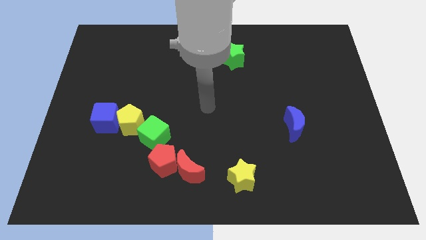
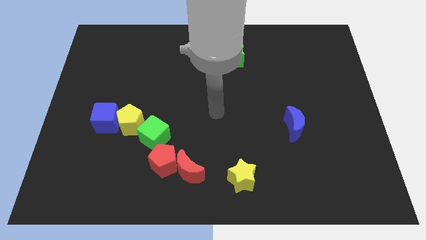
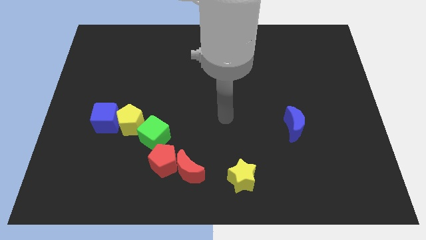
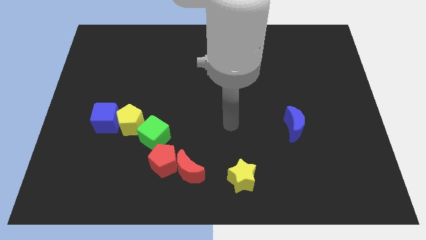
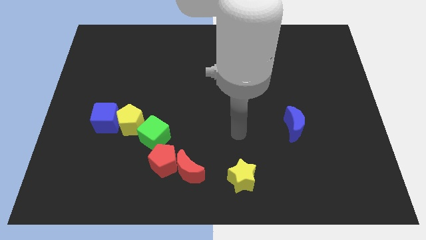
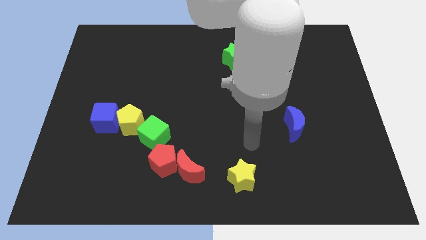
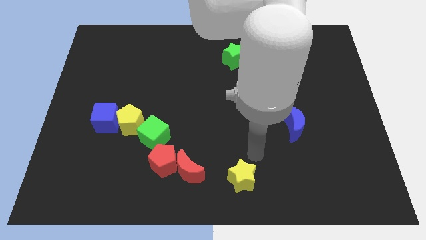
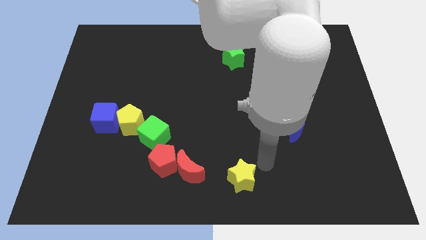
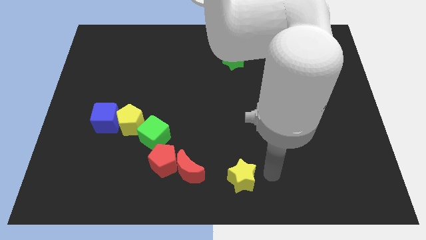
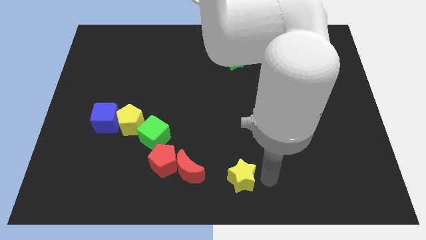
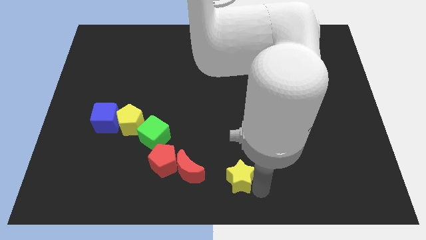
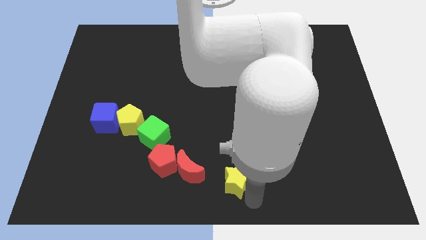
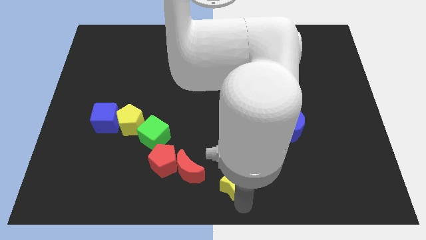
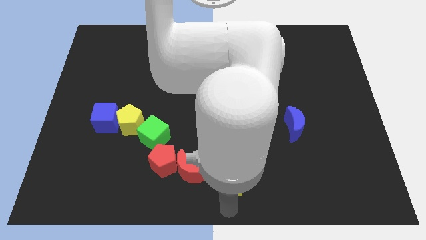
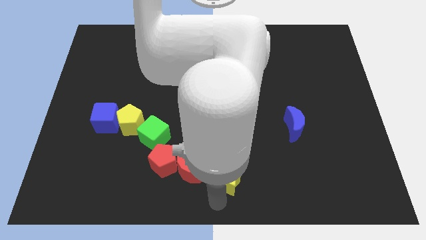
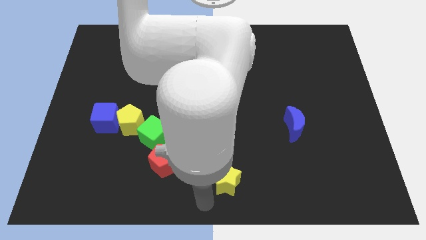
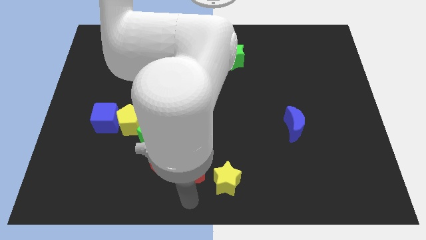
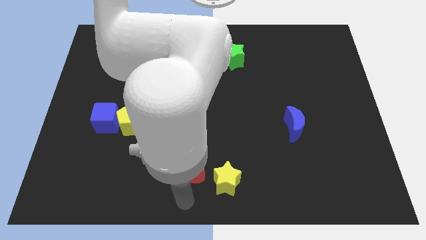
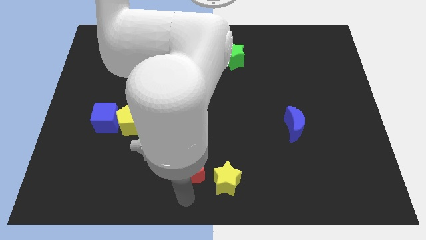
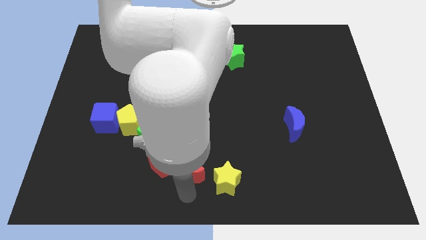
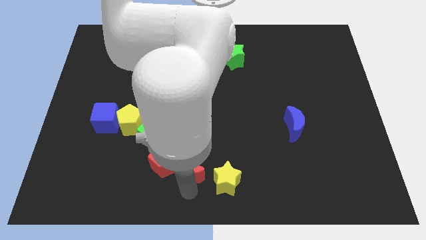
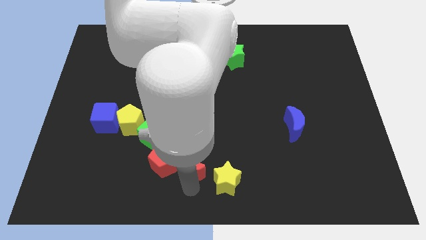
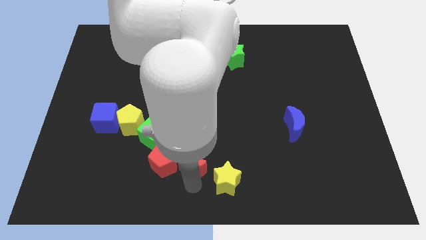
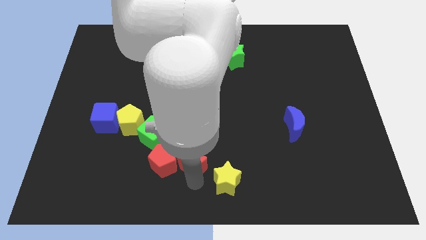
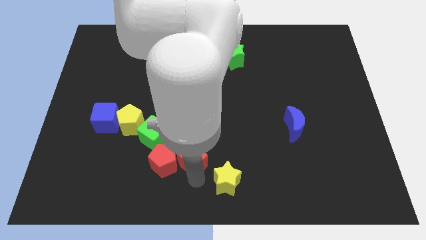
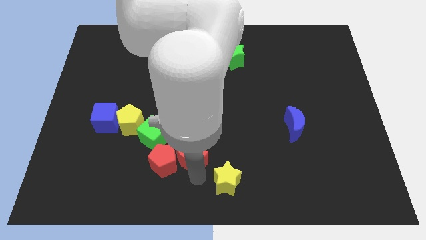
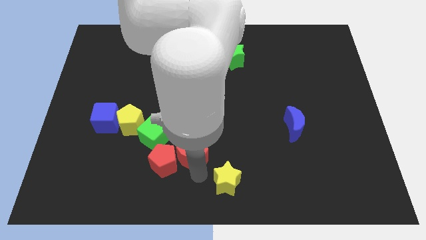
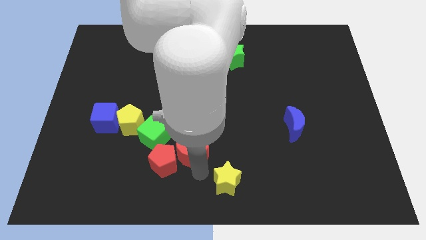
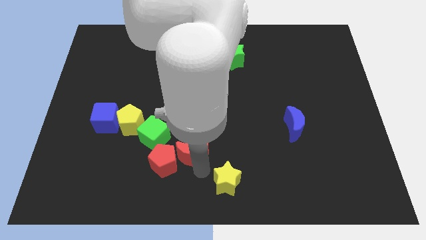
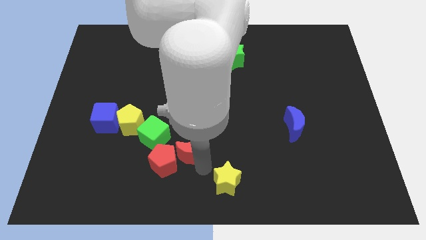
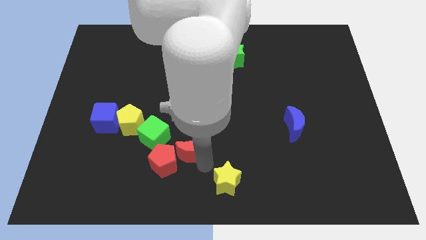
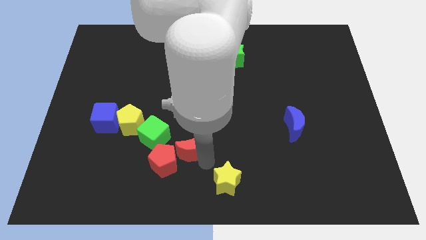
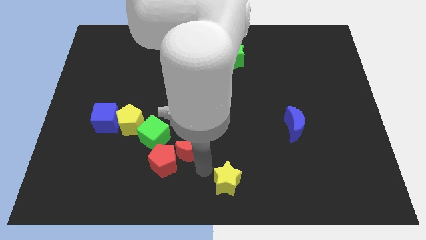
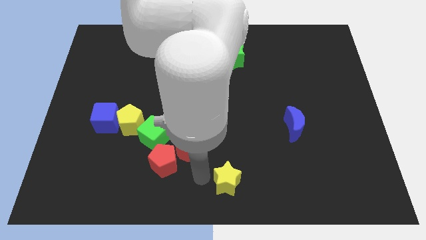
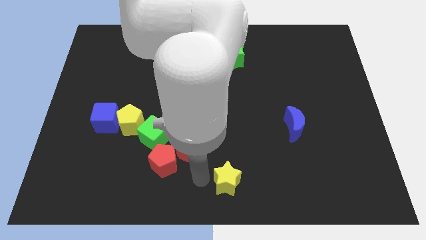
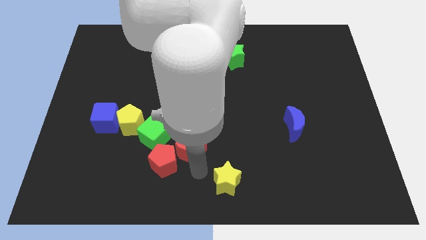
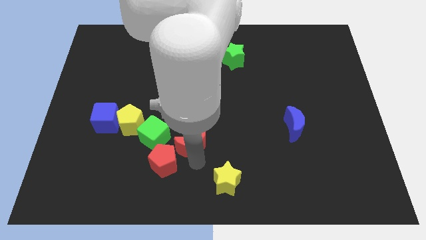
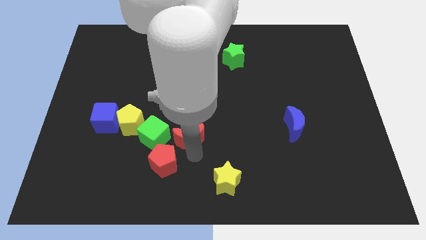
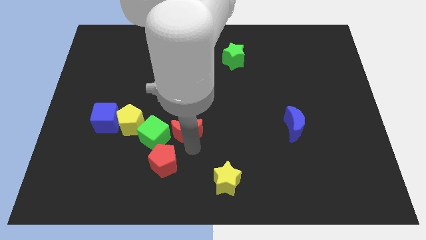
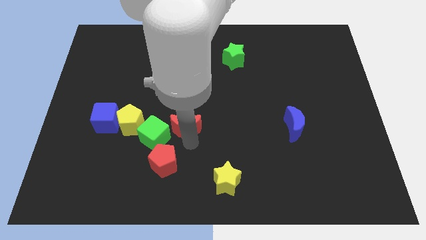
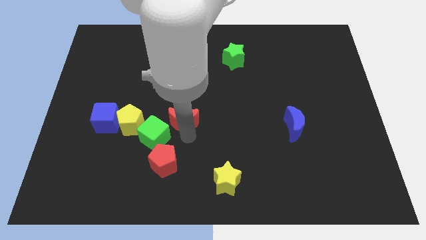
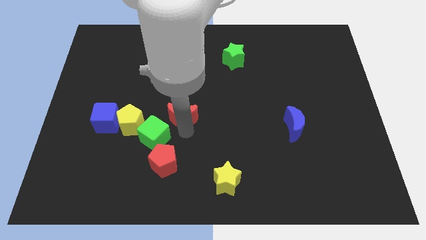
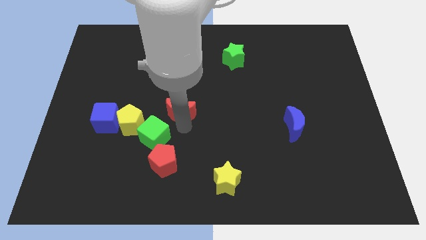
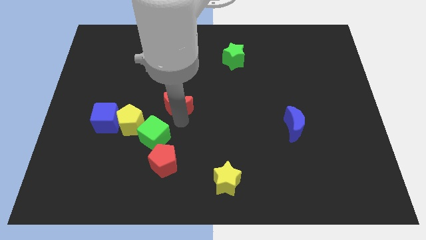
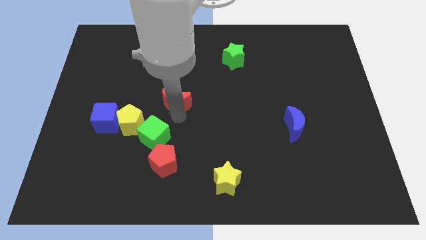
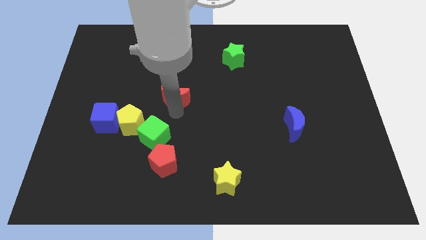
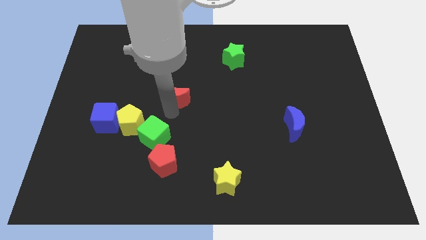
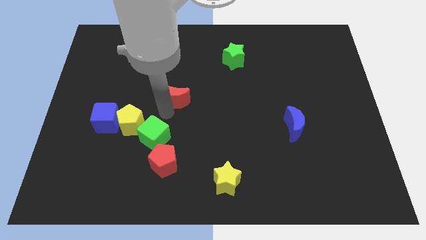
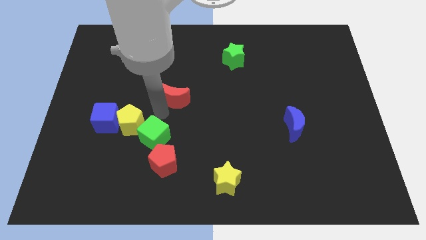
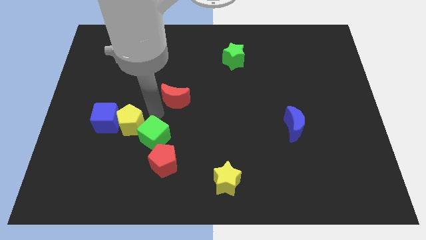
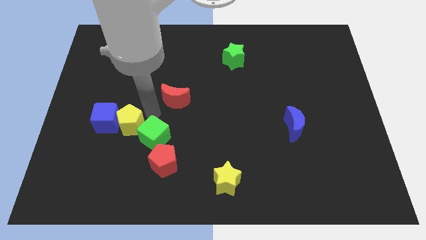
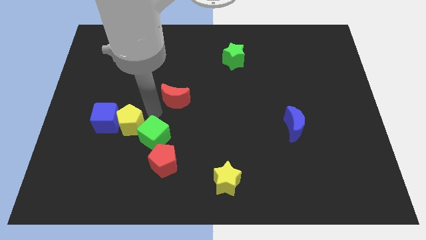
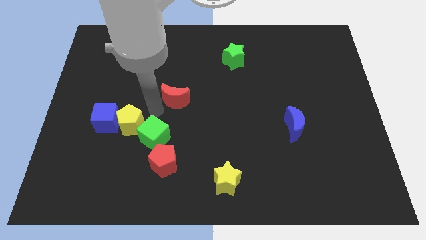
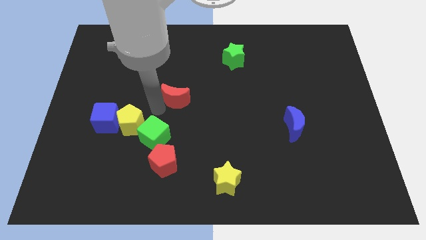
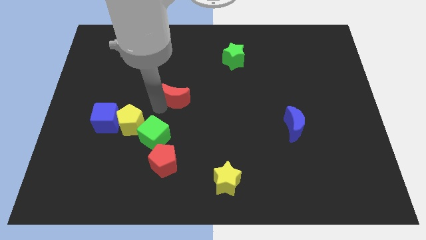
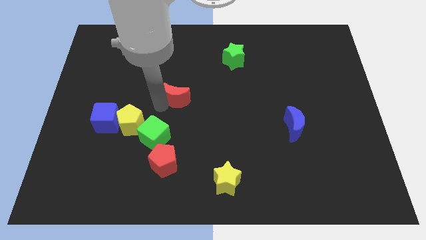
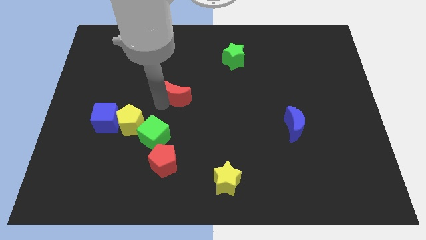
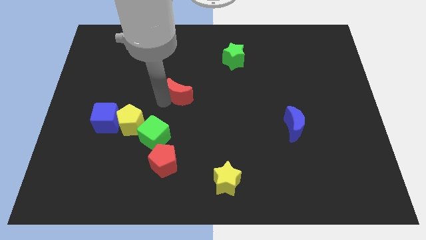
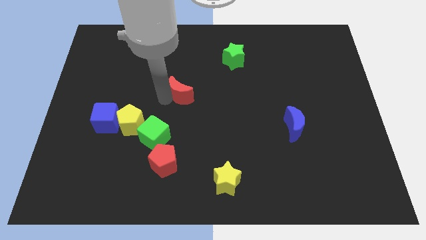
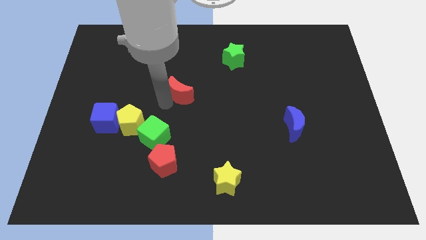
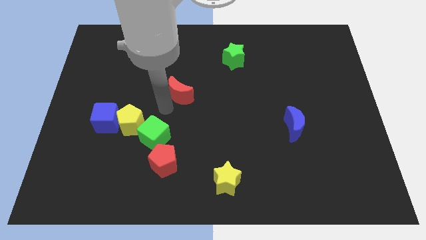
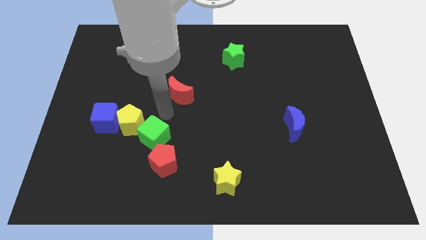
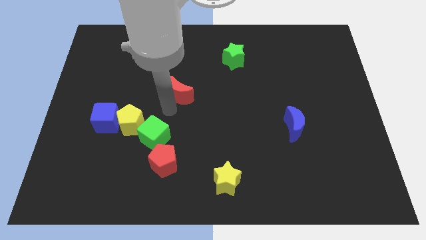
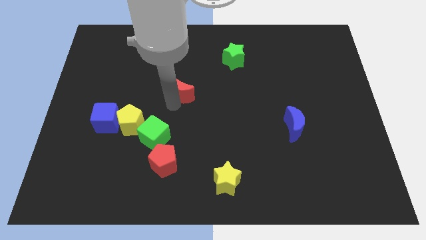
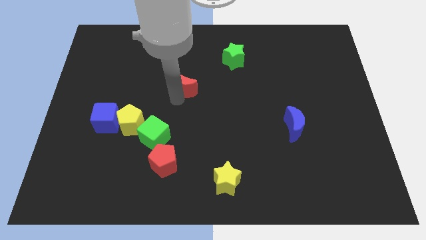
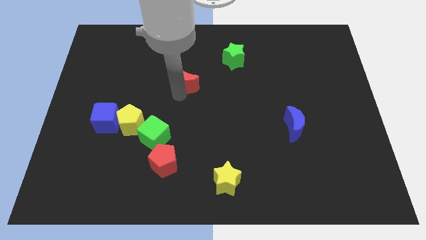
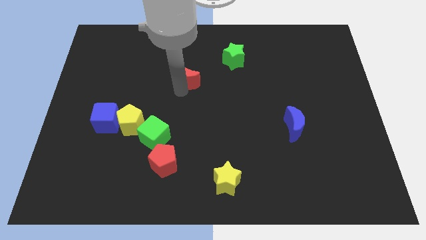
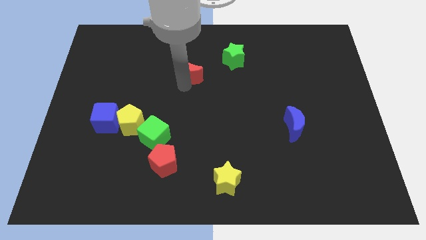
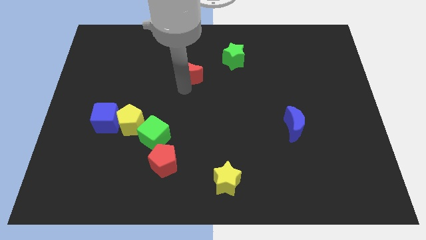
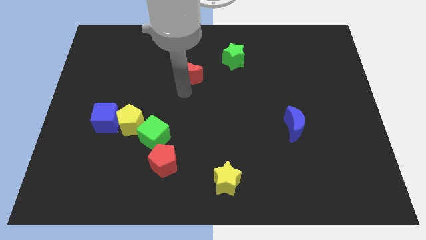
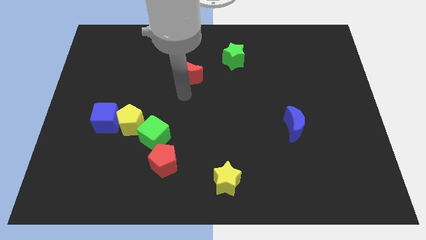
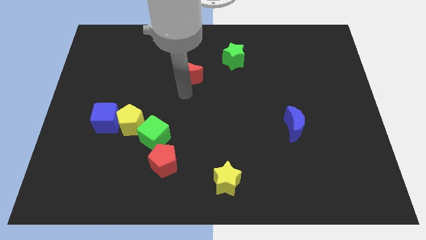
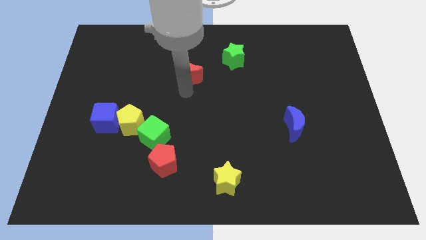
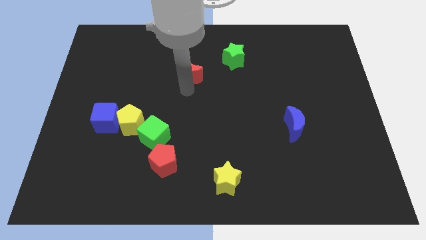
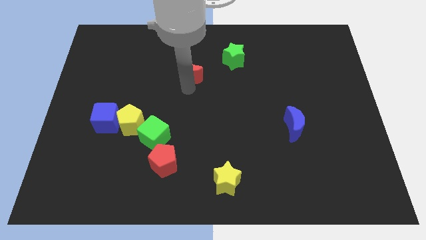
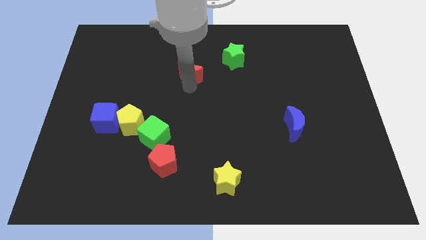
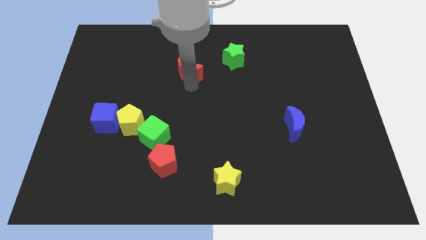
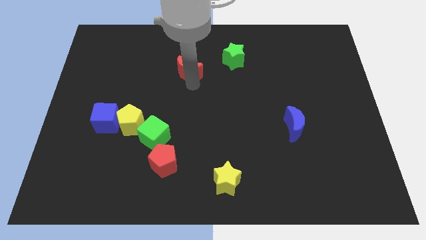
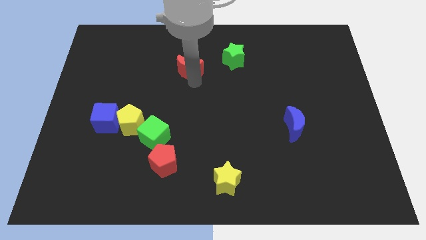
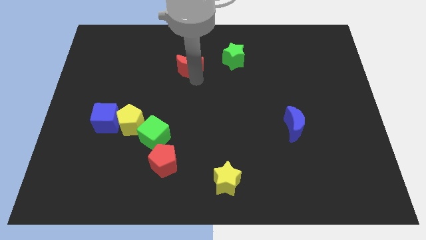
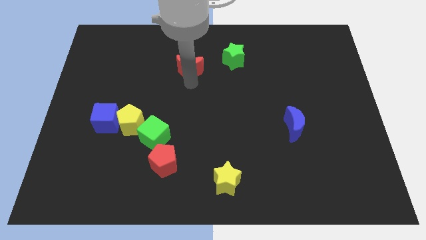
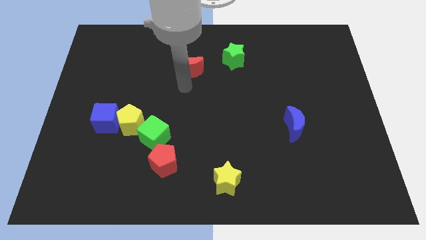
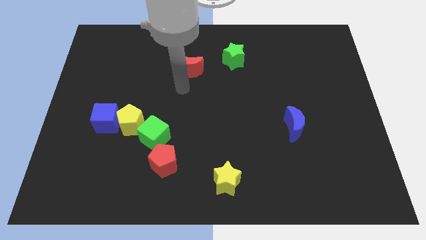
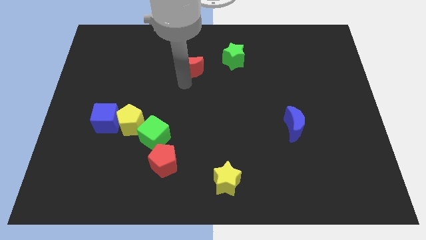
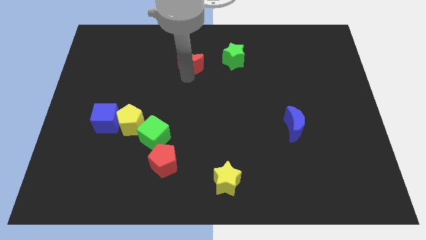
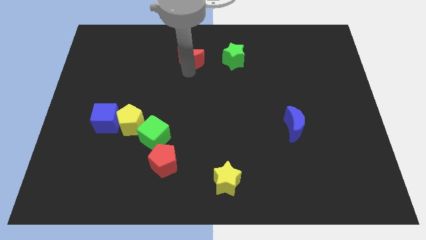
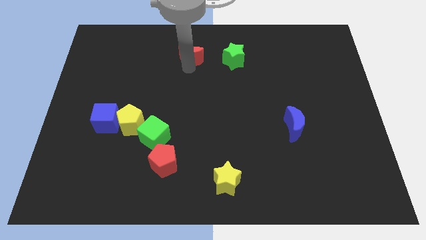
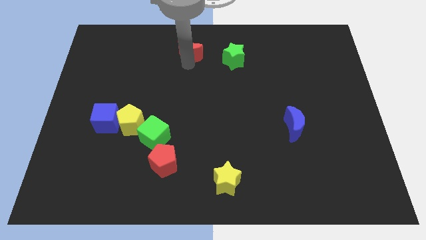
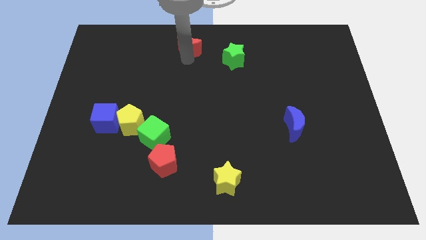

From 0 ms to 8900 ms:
slide the red moon to the towards your base
